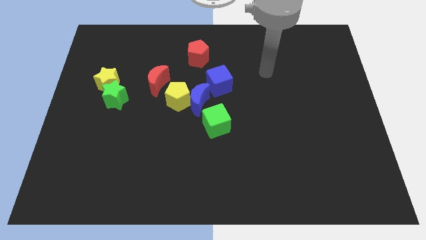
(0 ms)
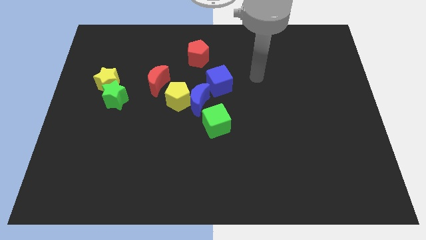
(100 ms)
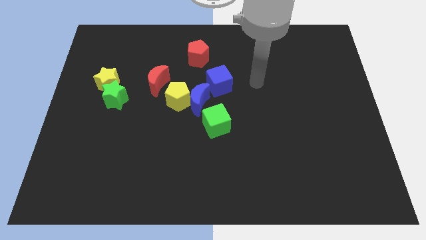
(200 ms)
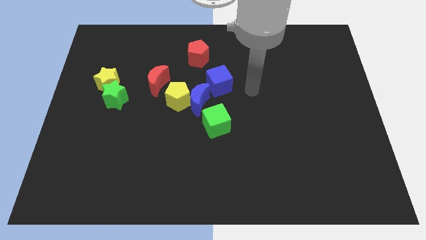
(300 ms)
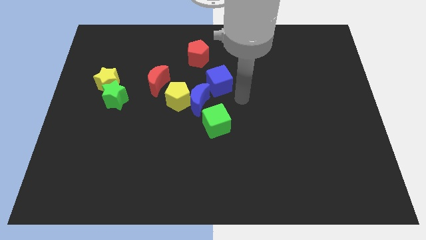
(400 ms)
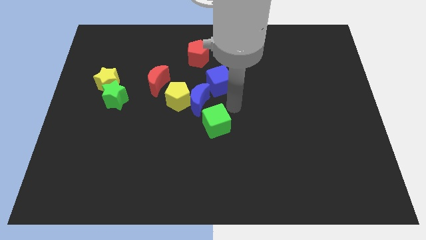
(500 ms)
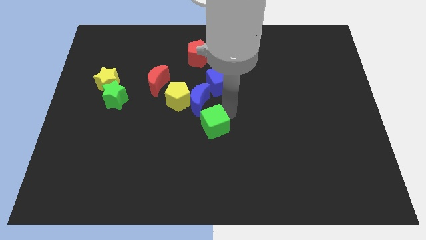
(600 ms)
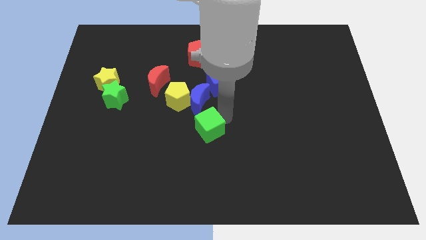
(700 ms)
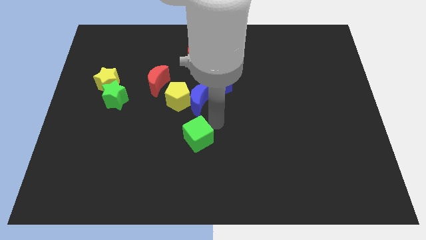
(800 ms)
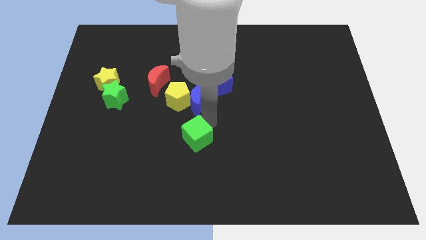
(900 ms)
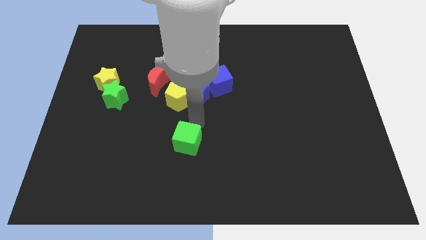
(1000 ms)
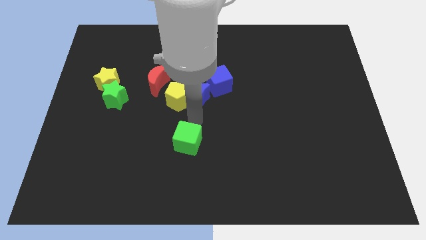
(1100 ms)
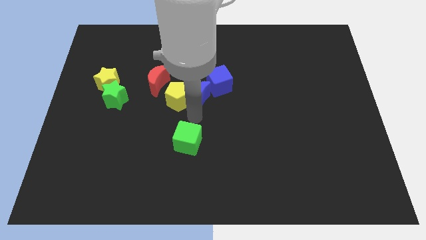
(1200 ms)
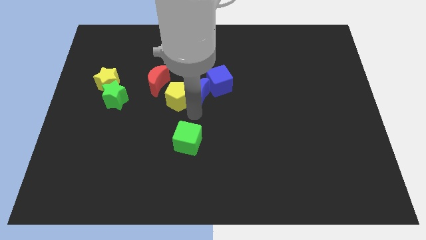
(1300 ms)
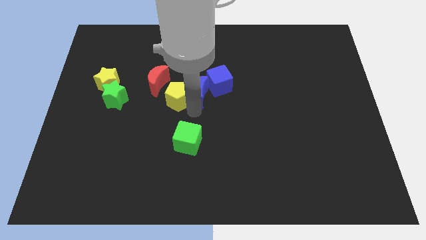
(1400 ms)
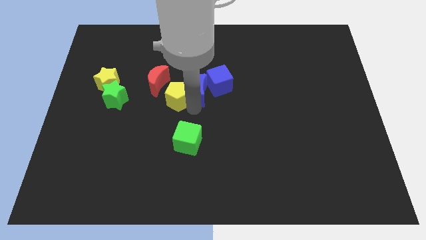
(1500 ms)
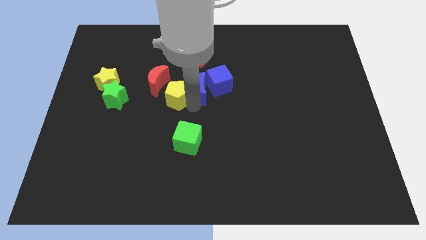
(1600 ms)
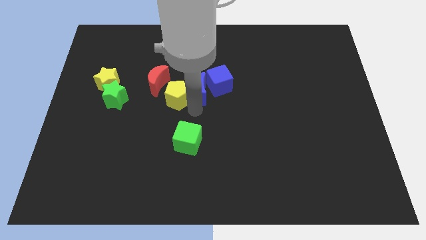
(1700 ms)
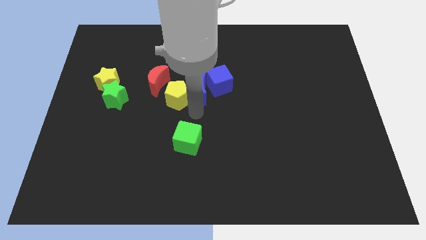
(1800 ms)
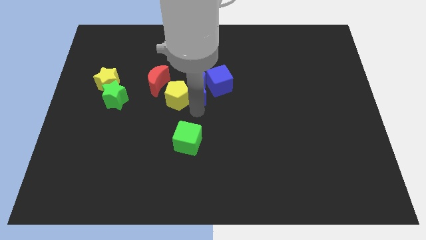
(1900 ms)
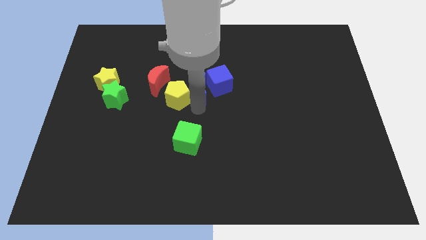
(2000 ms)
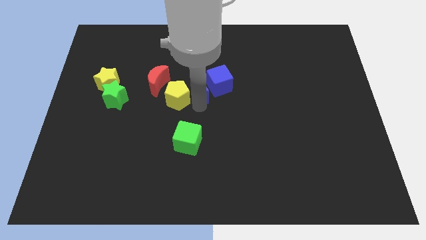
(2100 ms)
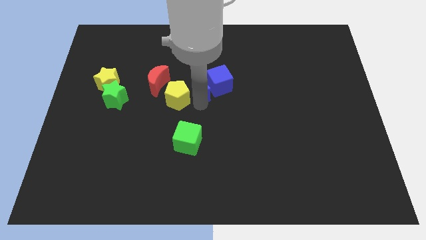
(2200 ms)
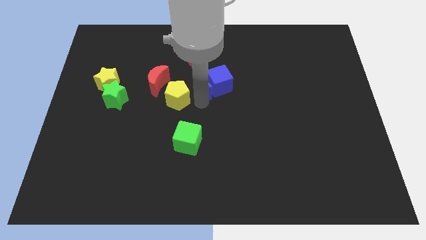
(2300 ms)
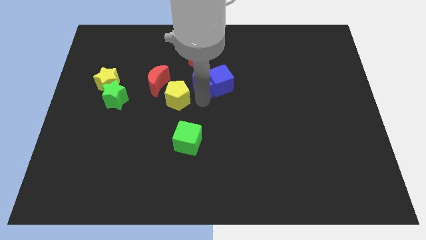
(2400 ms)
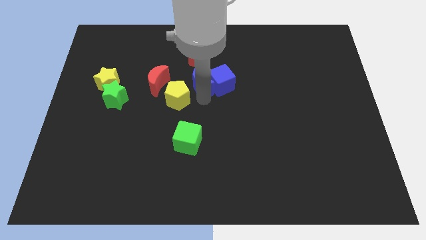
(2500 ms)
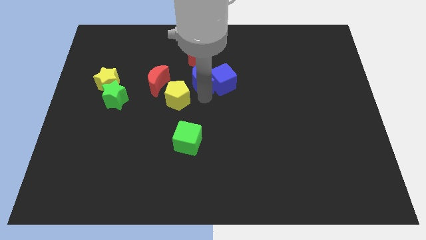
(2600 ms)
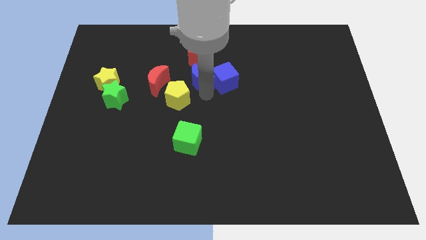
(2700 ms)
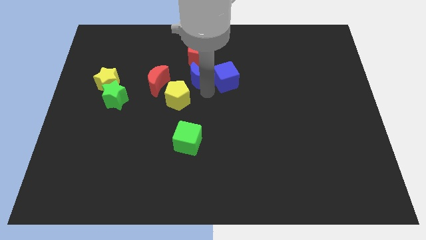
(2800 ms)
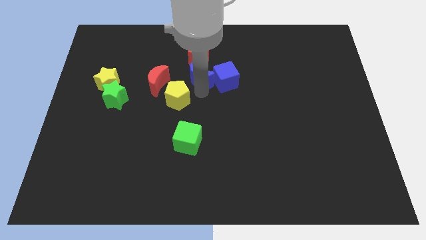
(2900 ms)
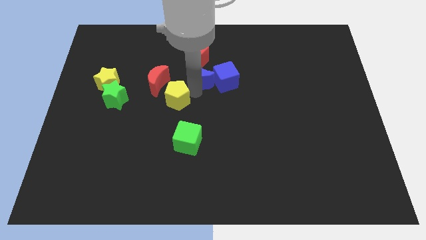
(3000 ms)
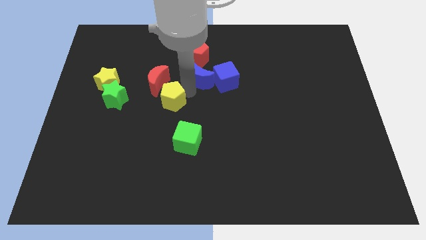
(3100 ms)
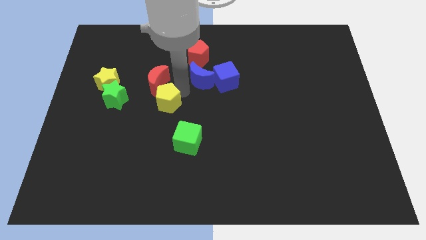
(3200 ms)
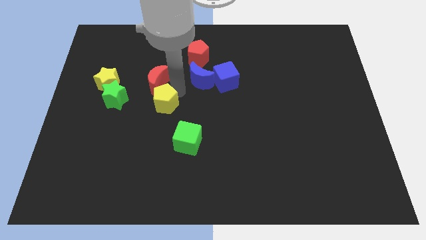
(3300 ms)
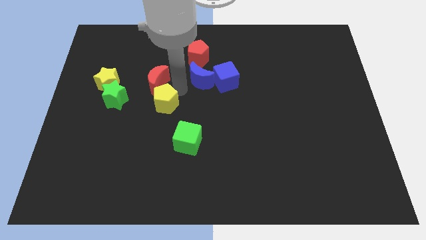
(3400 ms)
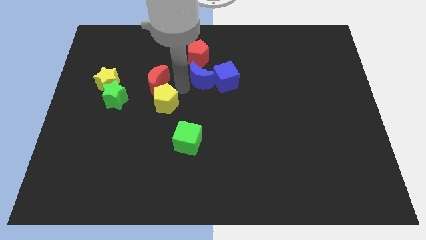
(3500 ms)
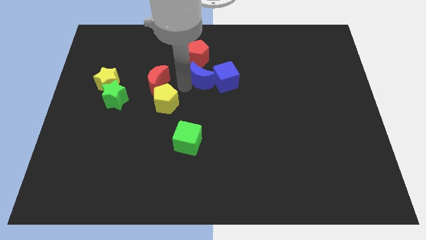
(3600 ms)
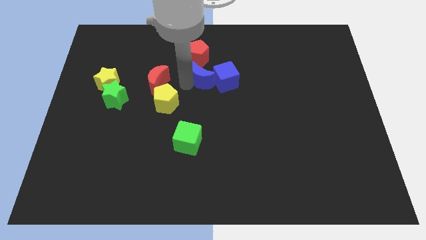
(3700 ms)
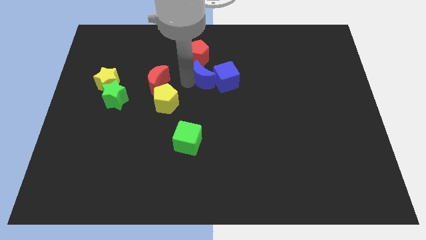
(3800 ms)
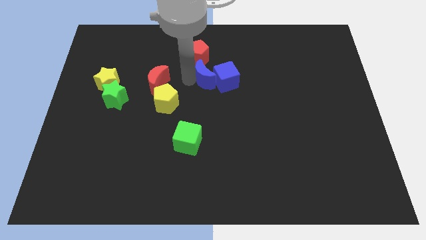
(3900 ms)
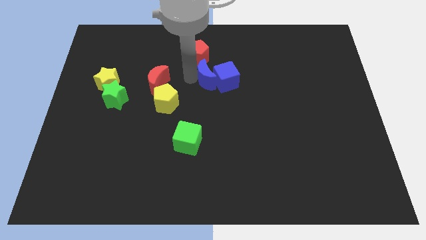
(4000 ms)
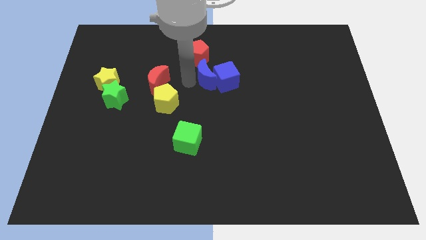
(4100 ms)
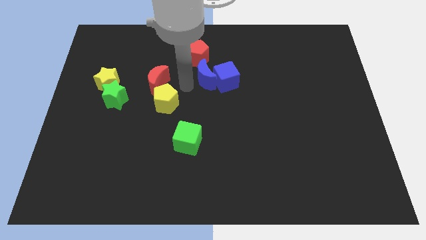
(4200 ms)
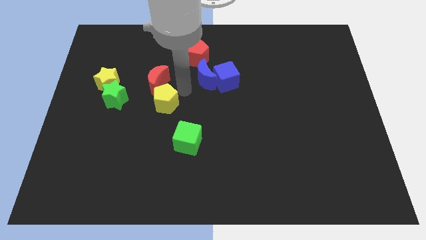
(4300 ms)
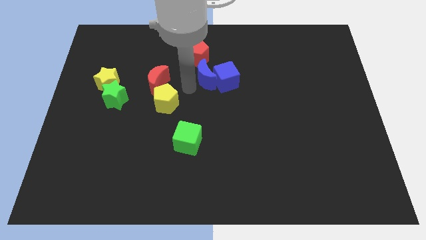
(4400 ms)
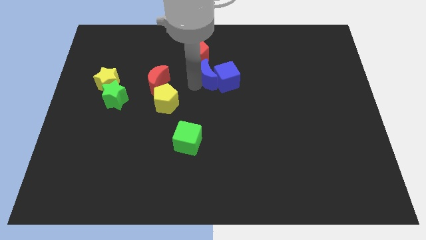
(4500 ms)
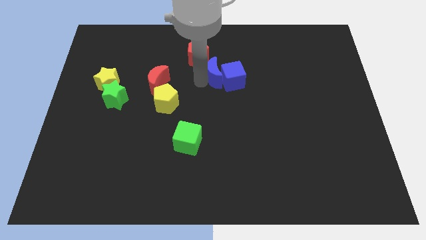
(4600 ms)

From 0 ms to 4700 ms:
move the blue moon a little bit up and right

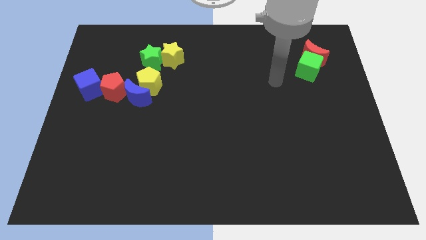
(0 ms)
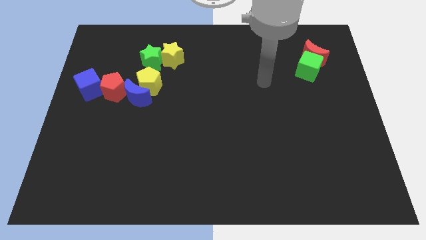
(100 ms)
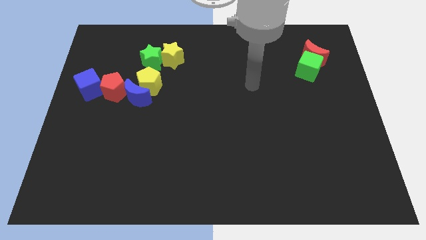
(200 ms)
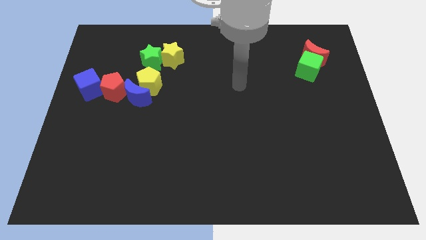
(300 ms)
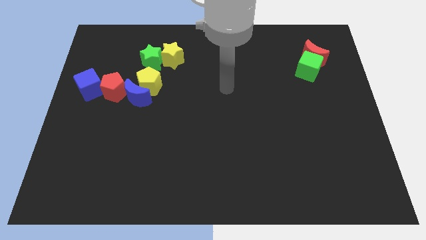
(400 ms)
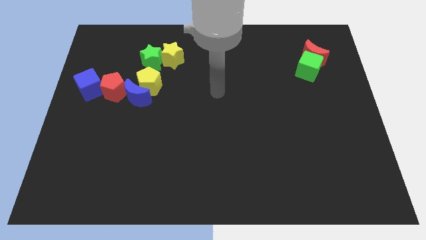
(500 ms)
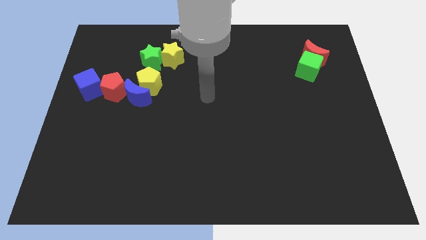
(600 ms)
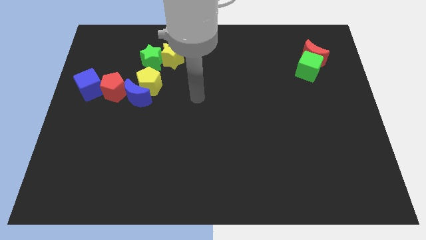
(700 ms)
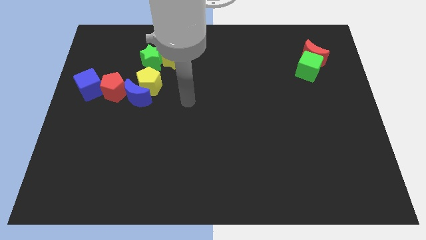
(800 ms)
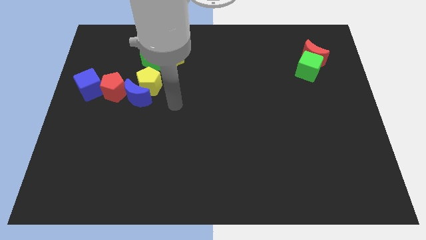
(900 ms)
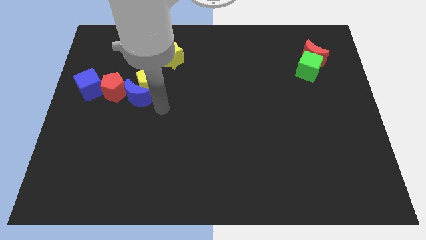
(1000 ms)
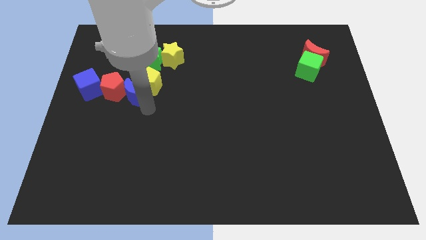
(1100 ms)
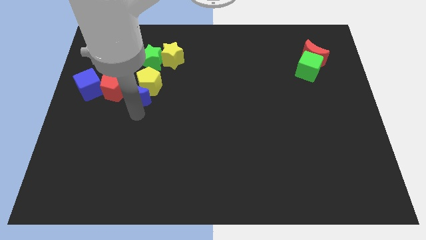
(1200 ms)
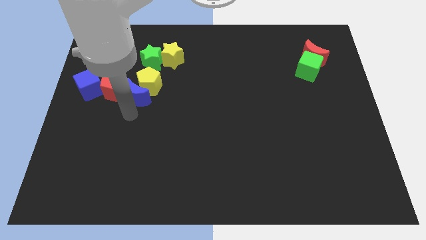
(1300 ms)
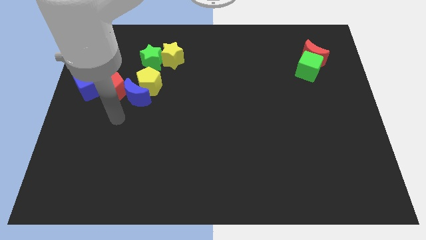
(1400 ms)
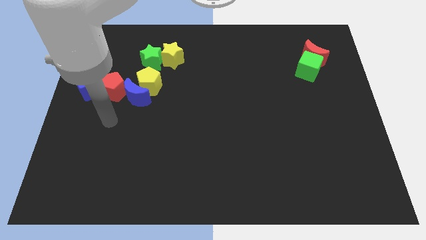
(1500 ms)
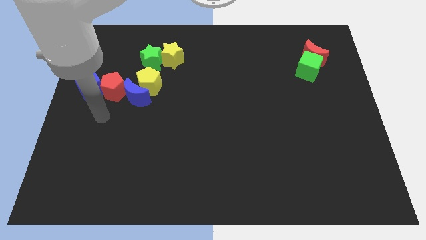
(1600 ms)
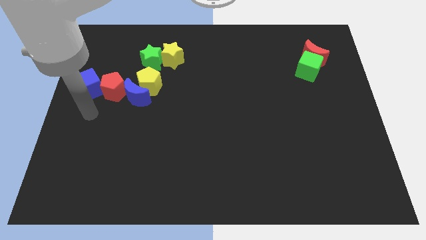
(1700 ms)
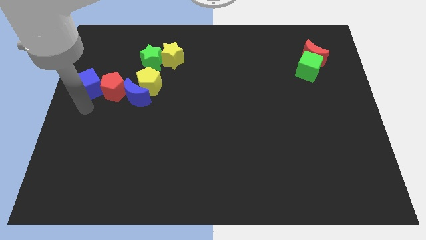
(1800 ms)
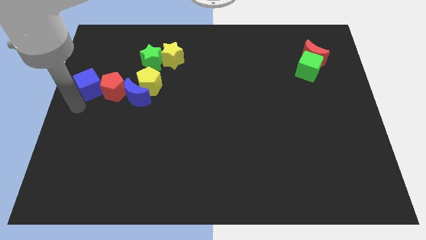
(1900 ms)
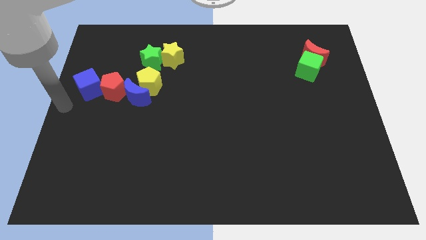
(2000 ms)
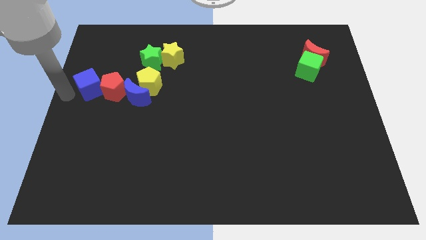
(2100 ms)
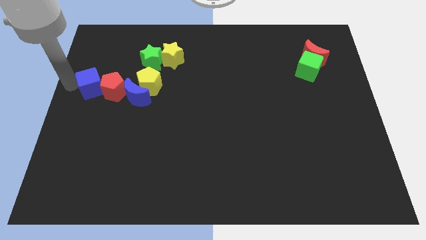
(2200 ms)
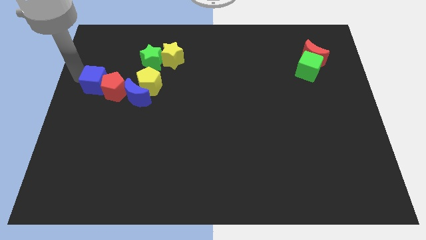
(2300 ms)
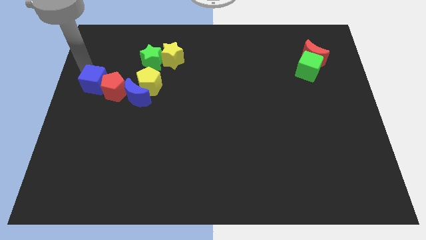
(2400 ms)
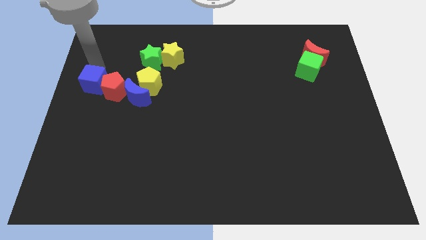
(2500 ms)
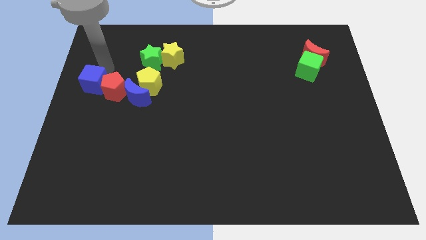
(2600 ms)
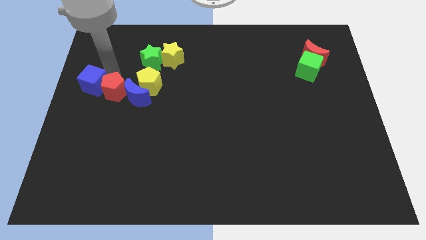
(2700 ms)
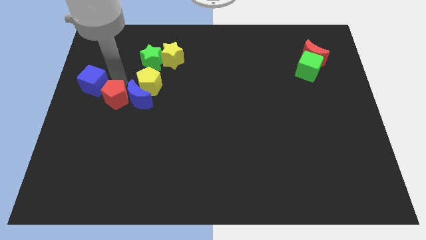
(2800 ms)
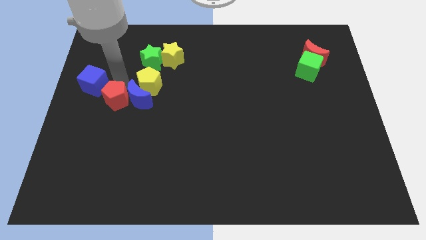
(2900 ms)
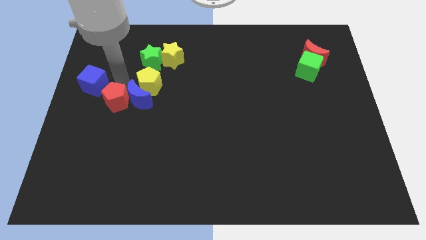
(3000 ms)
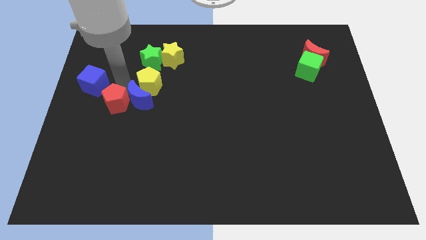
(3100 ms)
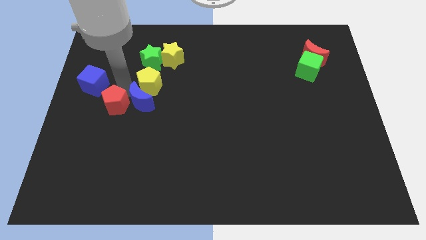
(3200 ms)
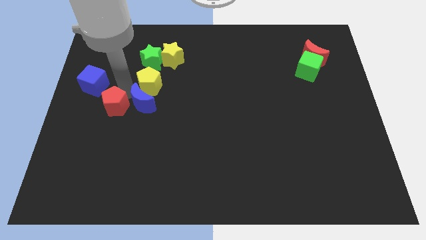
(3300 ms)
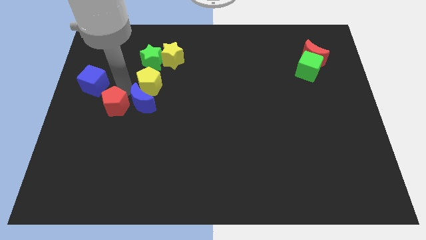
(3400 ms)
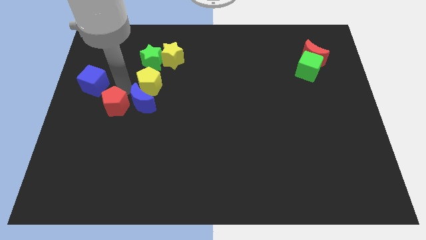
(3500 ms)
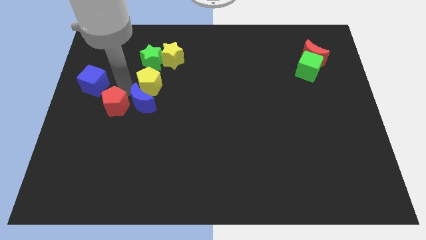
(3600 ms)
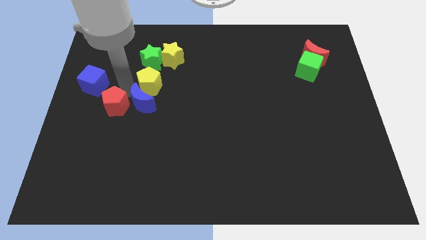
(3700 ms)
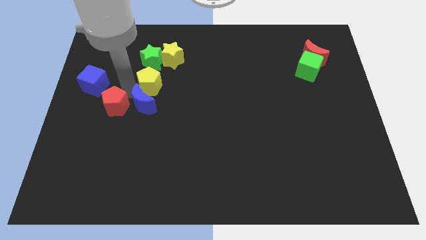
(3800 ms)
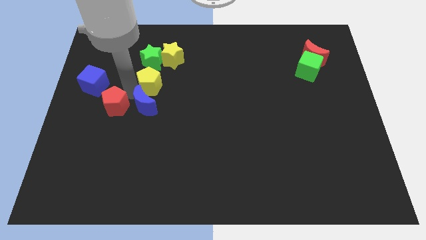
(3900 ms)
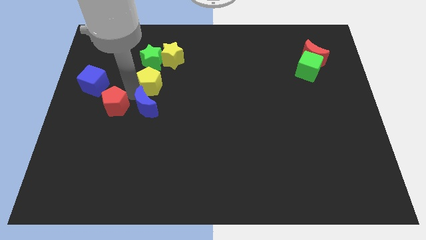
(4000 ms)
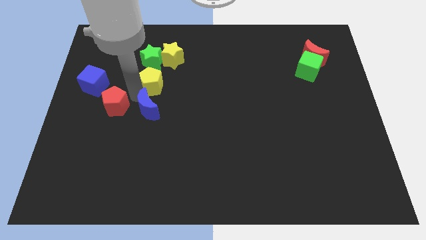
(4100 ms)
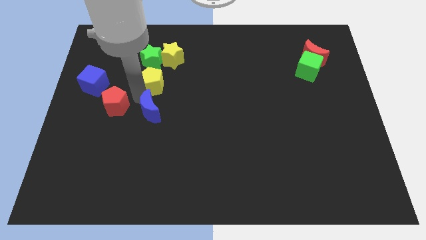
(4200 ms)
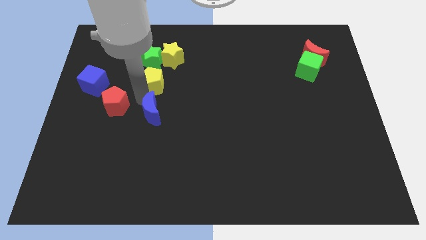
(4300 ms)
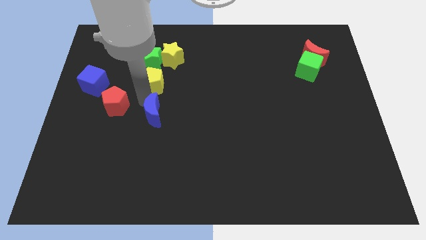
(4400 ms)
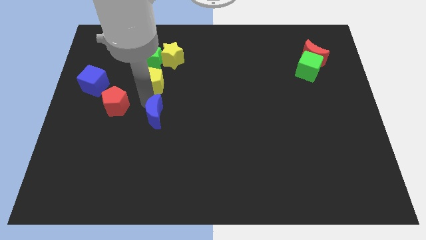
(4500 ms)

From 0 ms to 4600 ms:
push the blue moon down and then right a bit
